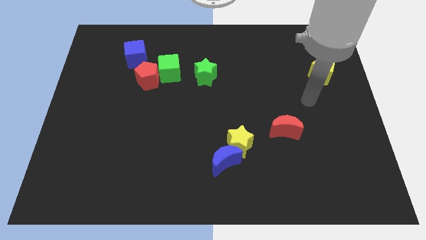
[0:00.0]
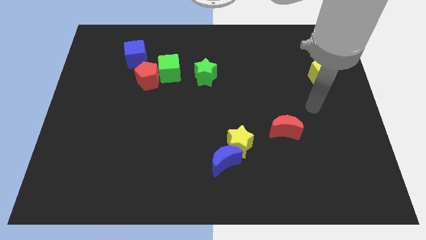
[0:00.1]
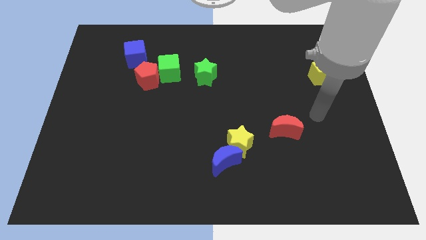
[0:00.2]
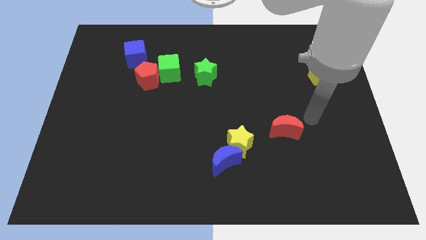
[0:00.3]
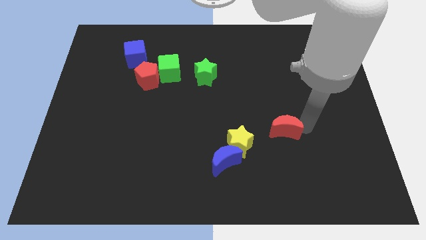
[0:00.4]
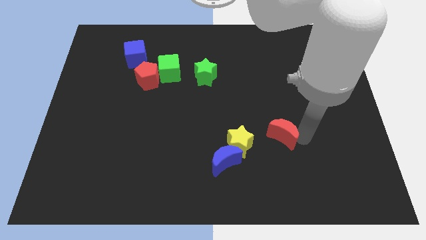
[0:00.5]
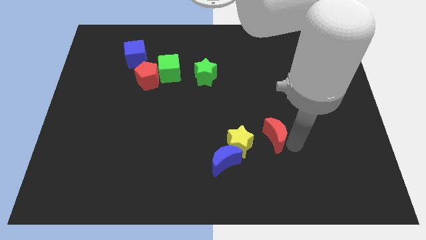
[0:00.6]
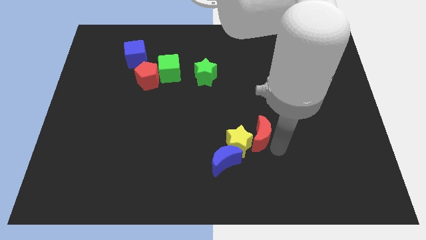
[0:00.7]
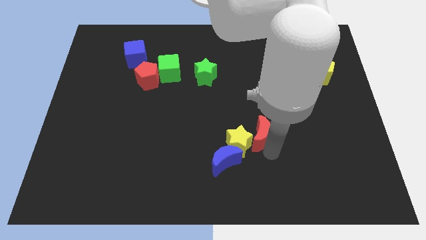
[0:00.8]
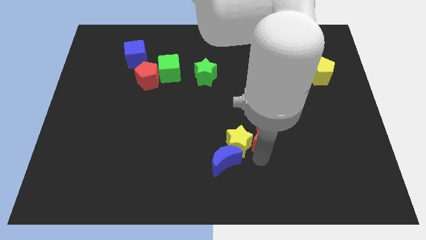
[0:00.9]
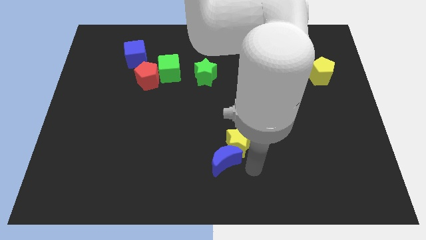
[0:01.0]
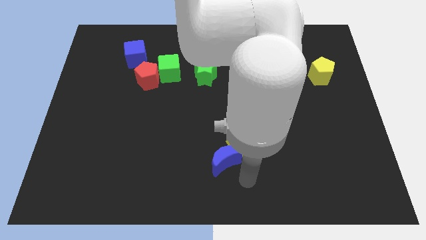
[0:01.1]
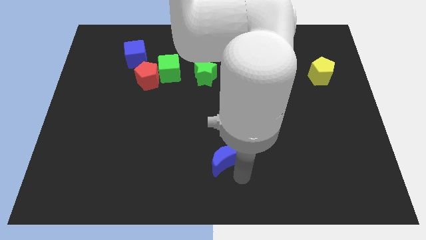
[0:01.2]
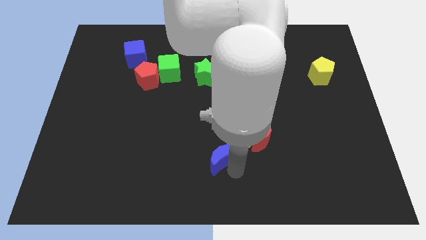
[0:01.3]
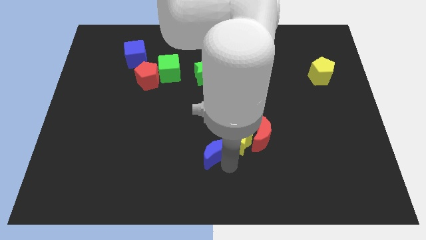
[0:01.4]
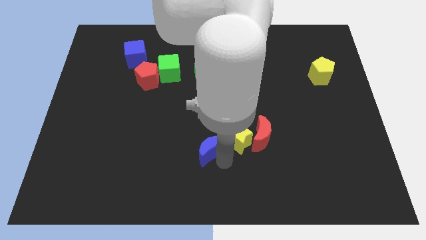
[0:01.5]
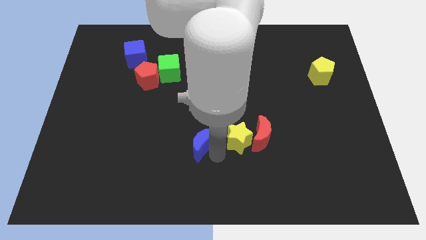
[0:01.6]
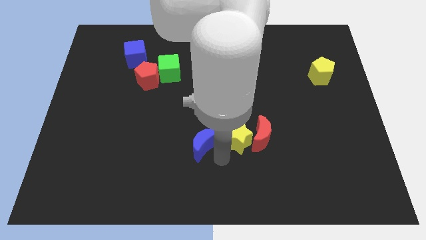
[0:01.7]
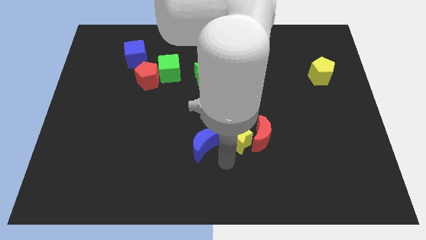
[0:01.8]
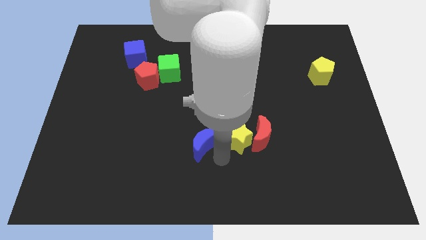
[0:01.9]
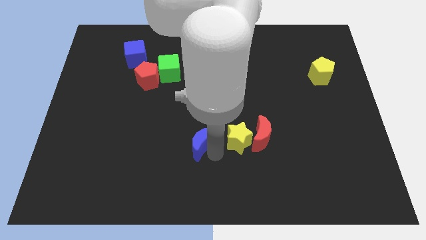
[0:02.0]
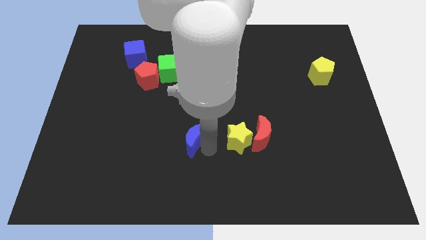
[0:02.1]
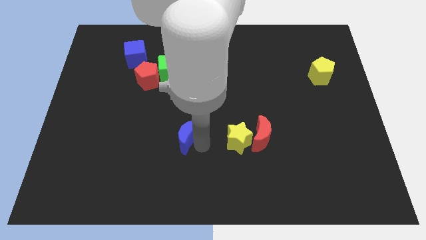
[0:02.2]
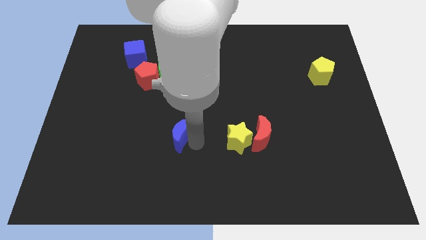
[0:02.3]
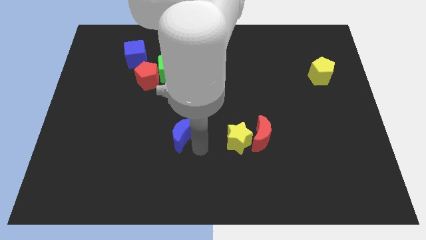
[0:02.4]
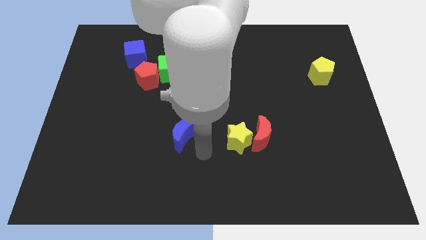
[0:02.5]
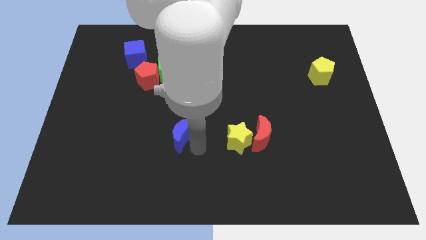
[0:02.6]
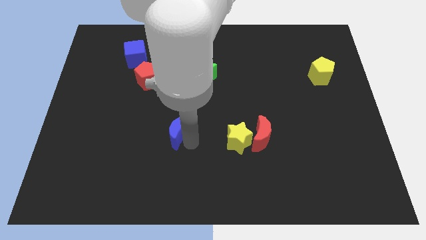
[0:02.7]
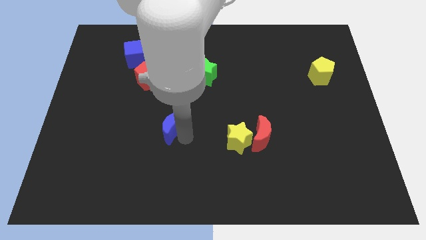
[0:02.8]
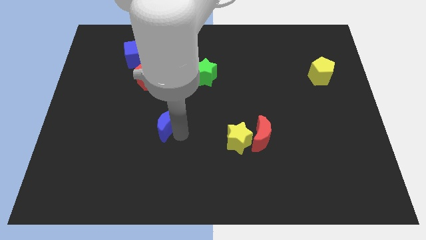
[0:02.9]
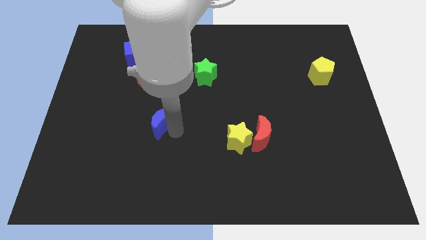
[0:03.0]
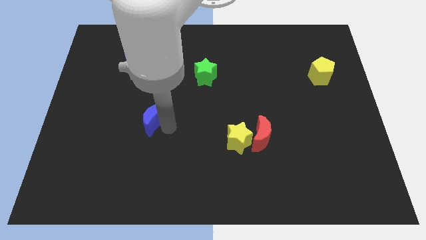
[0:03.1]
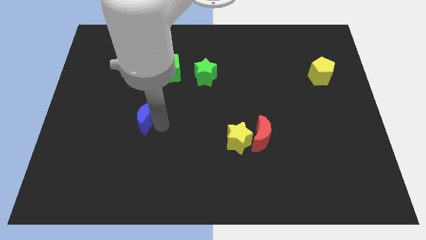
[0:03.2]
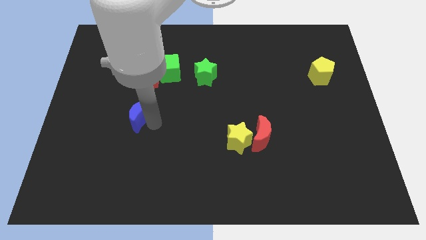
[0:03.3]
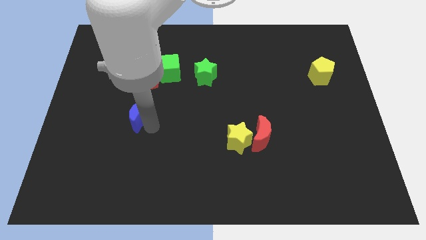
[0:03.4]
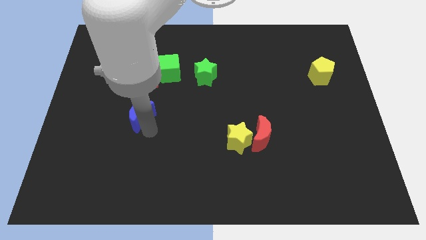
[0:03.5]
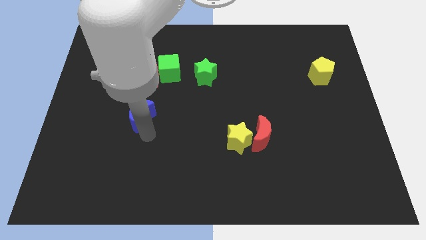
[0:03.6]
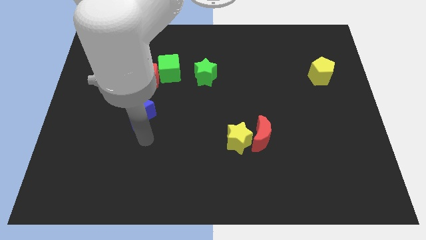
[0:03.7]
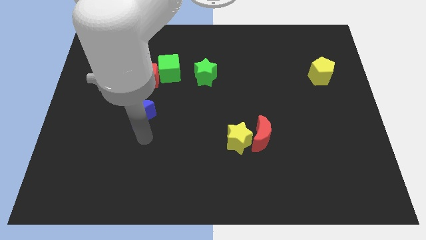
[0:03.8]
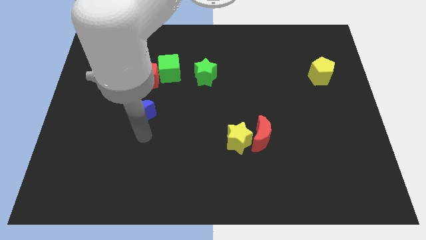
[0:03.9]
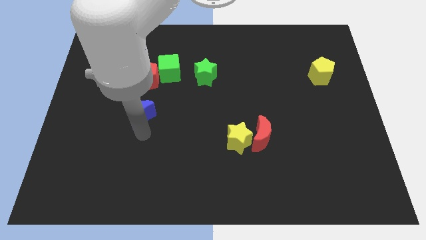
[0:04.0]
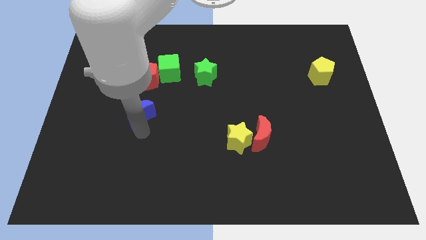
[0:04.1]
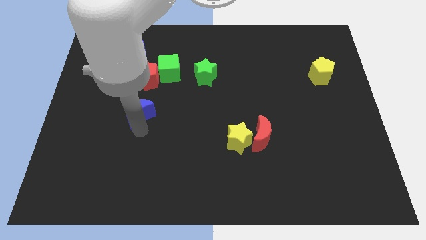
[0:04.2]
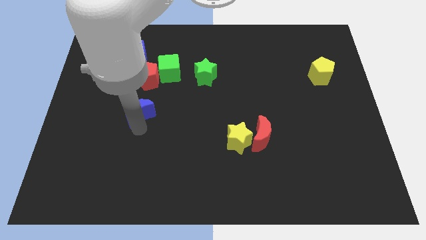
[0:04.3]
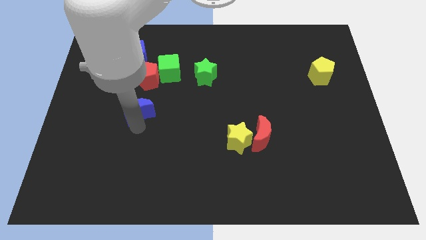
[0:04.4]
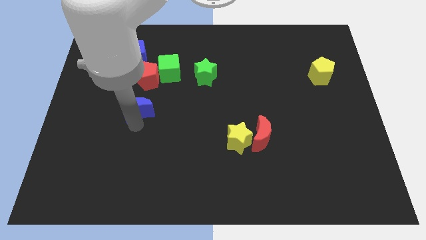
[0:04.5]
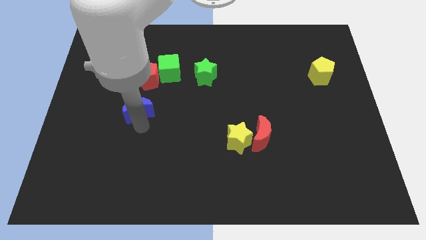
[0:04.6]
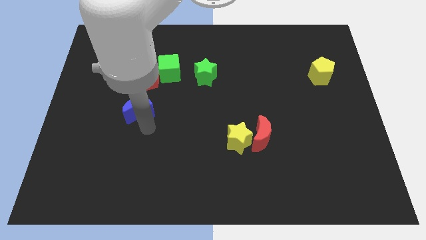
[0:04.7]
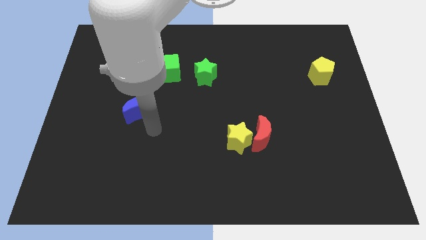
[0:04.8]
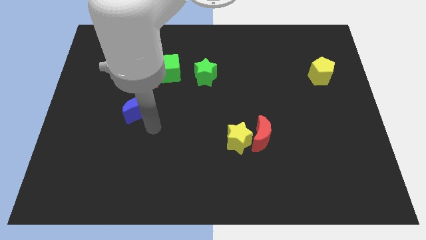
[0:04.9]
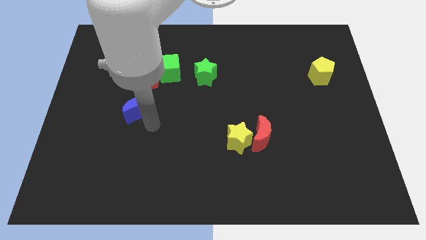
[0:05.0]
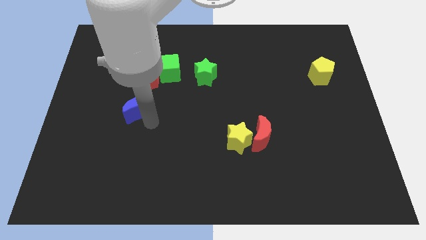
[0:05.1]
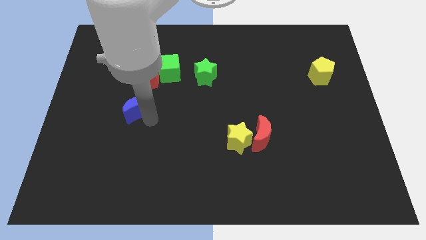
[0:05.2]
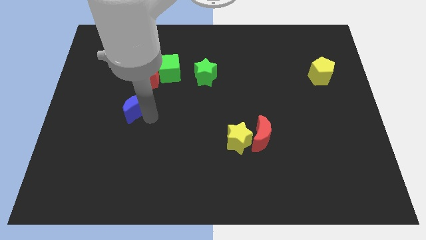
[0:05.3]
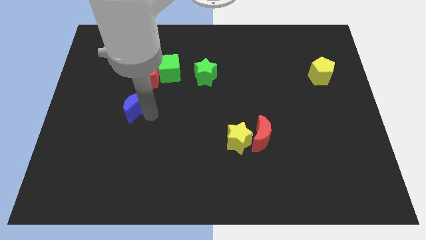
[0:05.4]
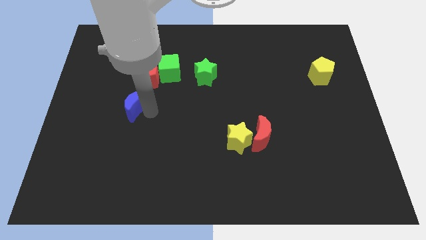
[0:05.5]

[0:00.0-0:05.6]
move the blue moon diagonally down and to the left of the red pentagon

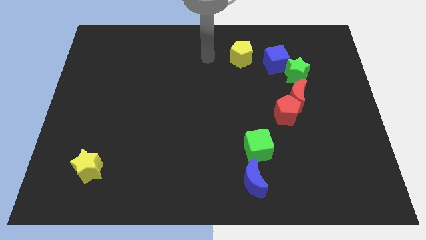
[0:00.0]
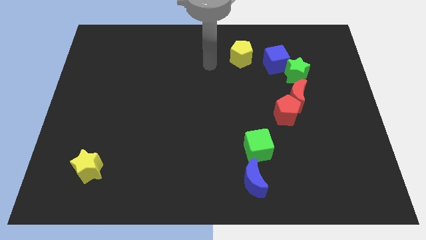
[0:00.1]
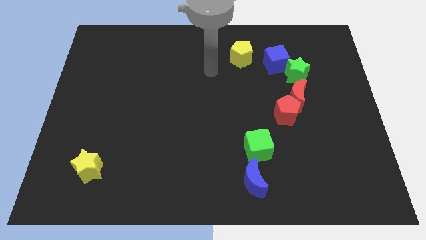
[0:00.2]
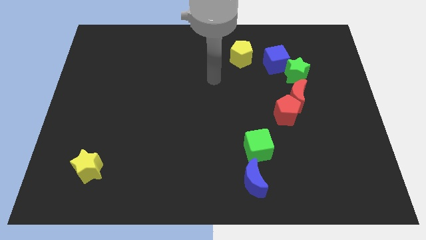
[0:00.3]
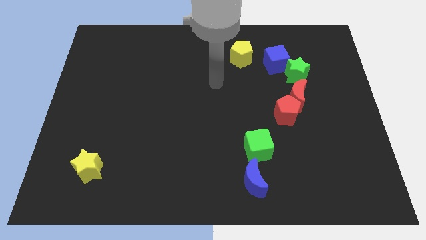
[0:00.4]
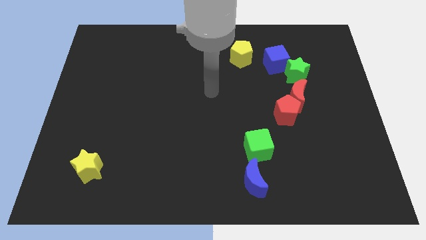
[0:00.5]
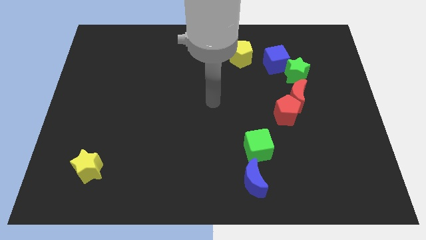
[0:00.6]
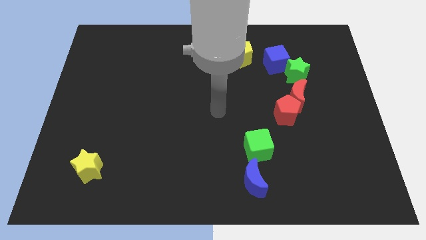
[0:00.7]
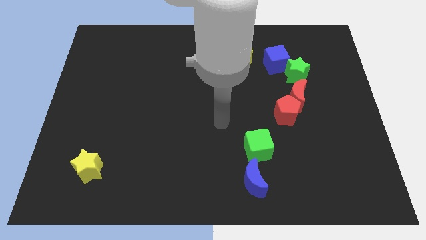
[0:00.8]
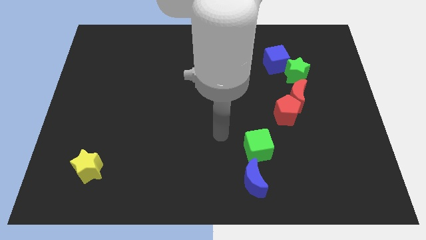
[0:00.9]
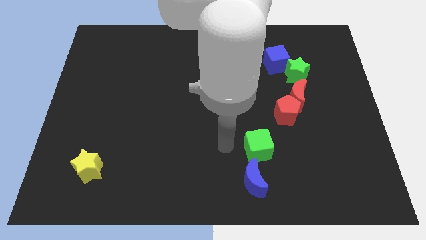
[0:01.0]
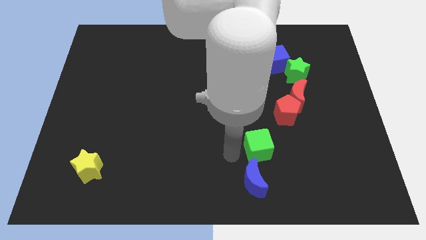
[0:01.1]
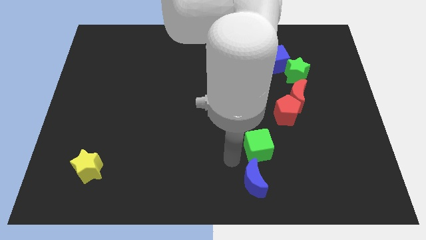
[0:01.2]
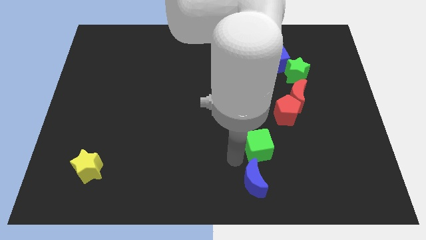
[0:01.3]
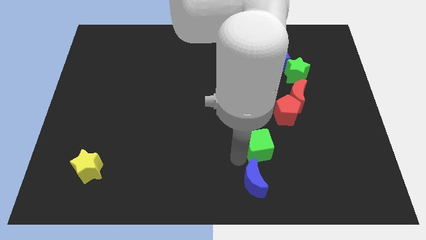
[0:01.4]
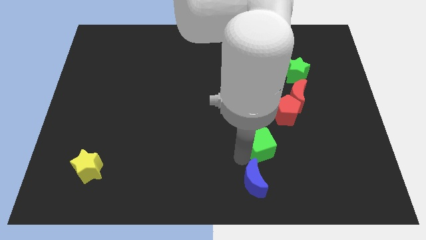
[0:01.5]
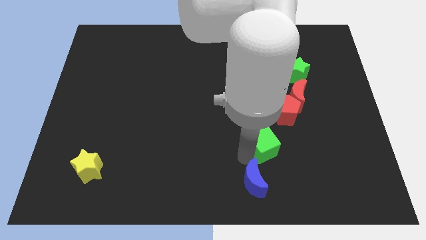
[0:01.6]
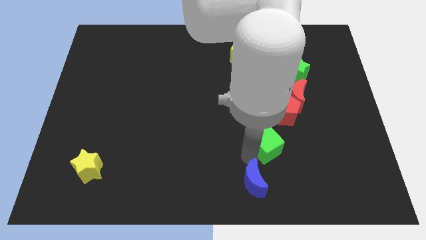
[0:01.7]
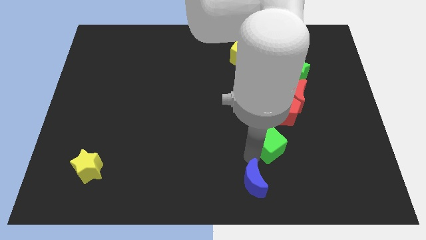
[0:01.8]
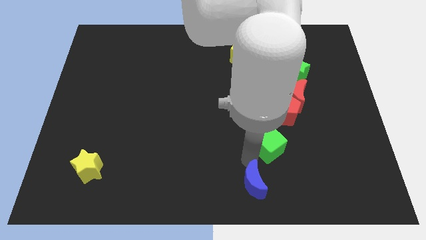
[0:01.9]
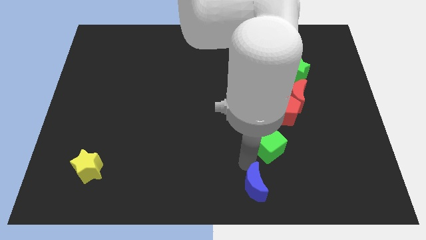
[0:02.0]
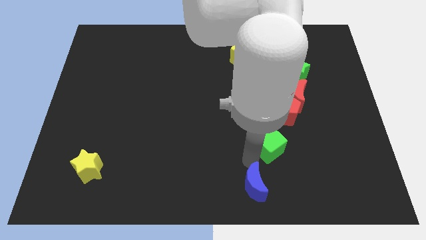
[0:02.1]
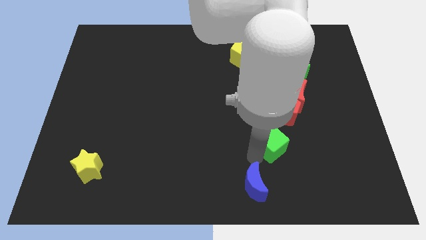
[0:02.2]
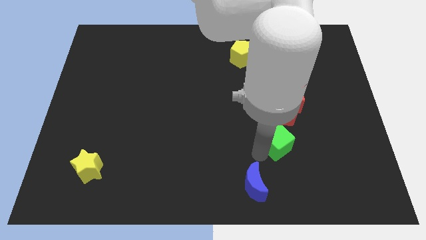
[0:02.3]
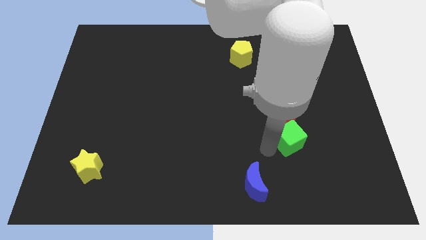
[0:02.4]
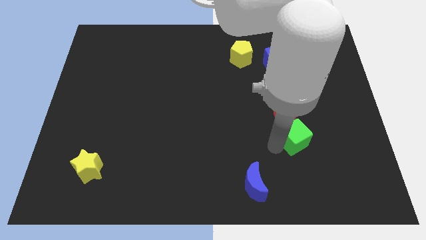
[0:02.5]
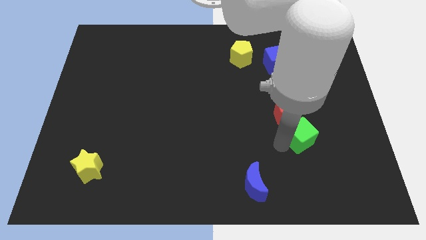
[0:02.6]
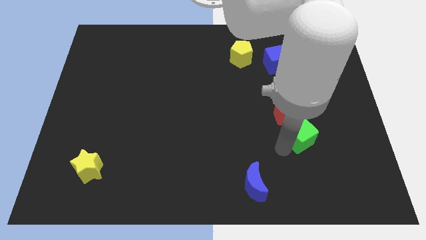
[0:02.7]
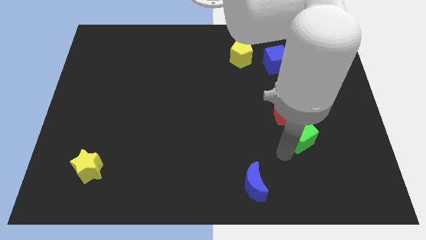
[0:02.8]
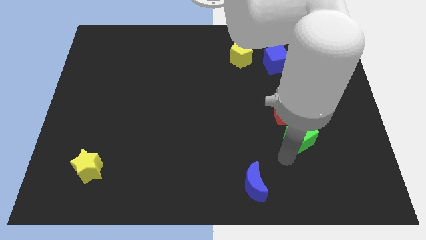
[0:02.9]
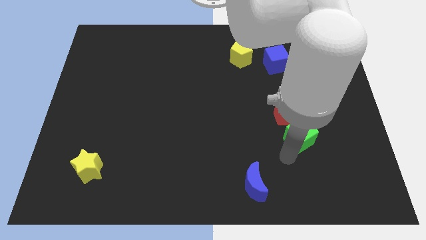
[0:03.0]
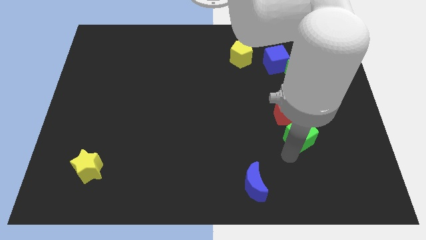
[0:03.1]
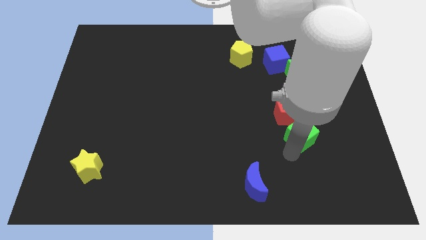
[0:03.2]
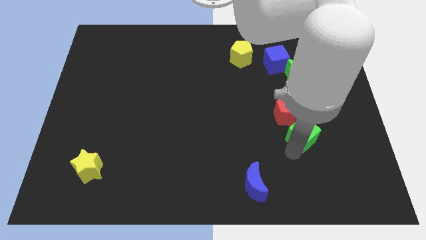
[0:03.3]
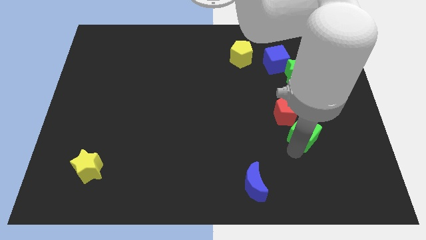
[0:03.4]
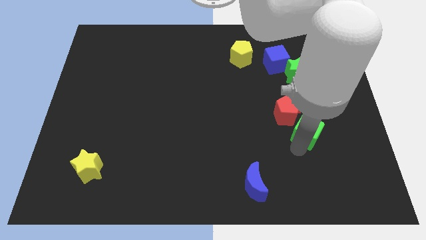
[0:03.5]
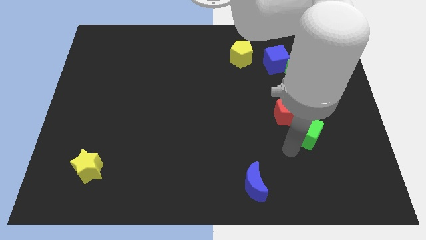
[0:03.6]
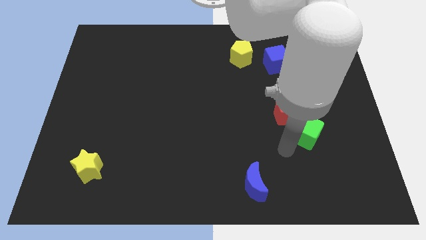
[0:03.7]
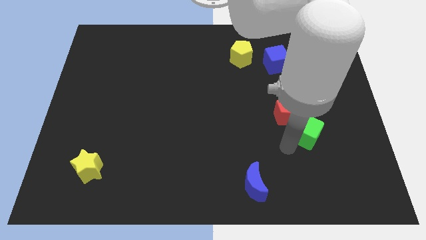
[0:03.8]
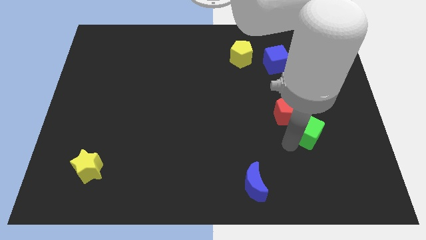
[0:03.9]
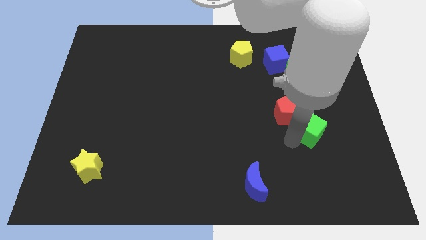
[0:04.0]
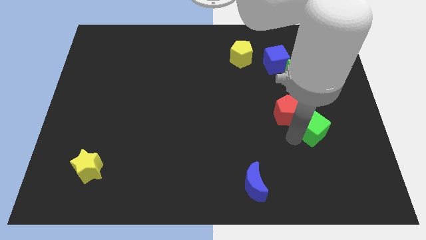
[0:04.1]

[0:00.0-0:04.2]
put the green cube just right of the red pentagon
